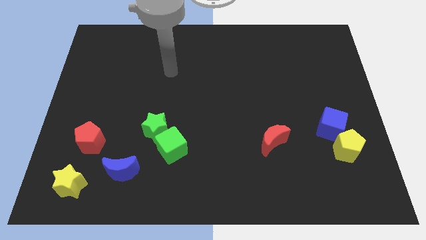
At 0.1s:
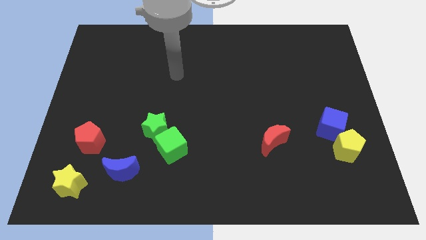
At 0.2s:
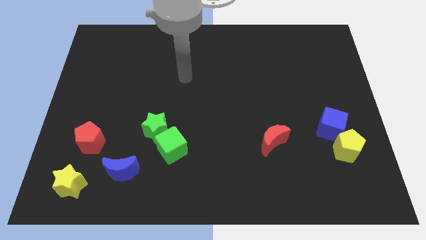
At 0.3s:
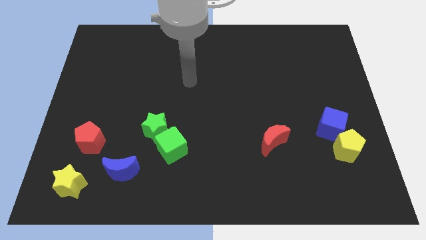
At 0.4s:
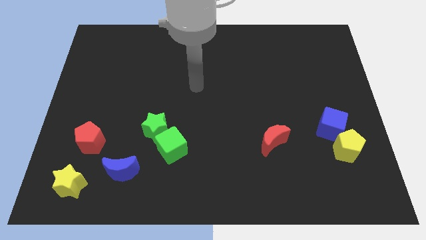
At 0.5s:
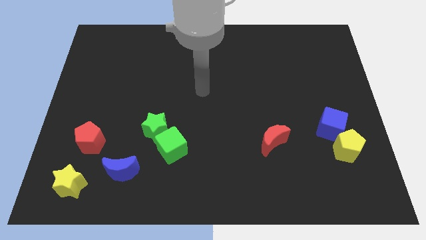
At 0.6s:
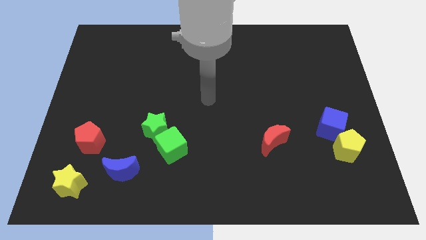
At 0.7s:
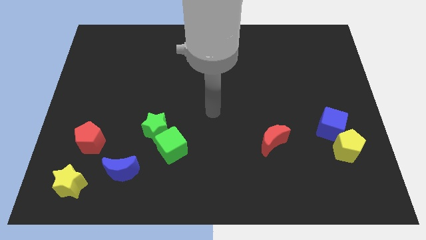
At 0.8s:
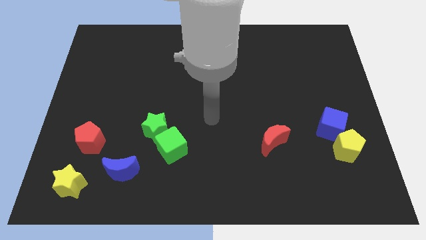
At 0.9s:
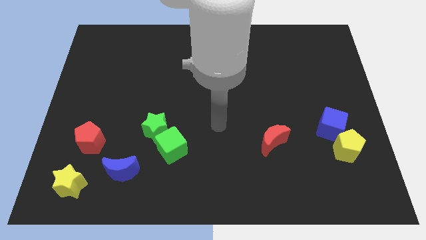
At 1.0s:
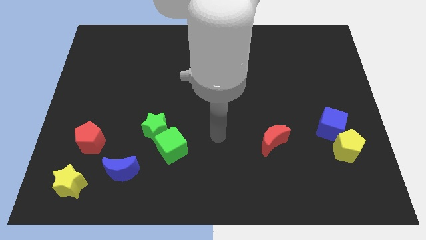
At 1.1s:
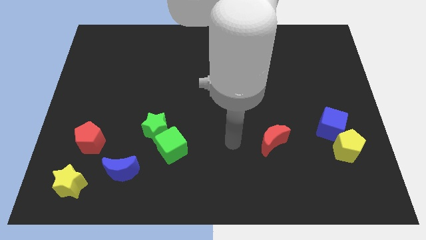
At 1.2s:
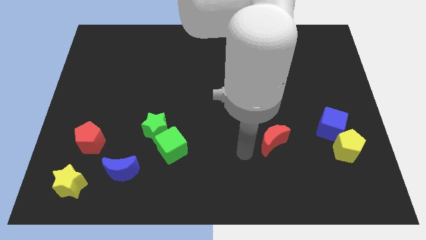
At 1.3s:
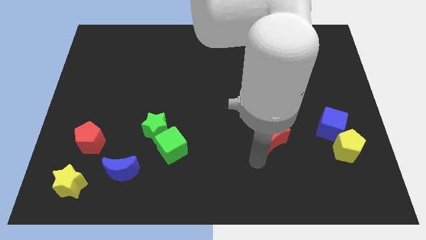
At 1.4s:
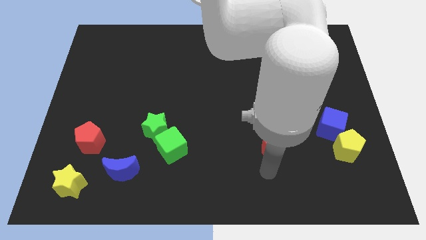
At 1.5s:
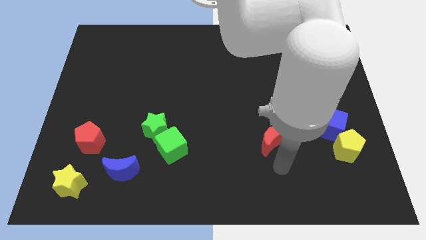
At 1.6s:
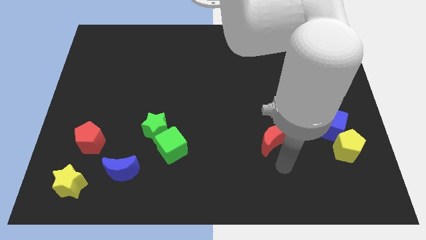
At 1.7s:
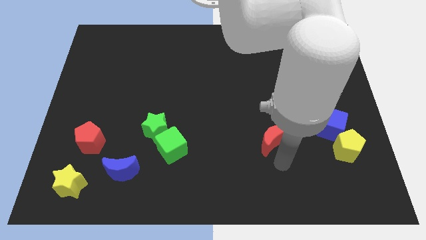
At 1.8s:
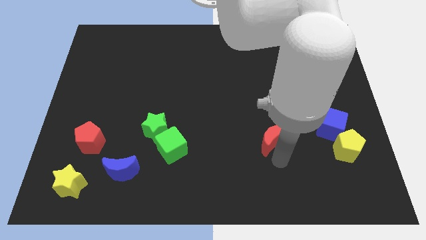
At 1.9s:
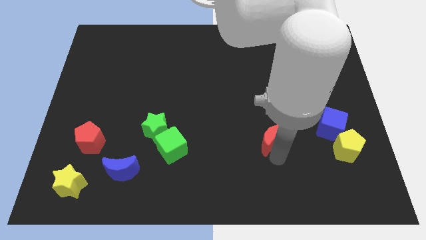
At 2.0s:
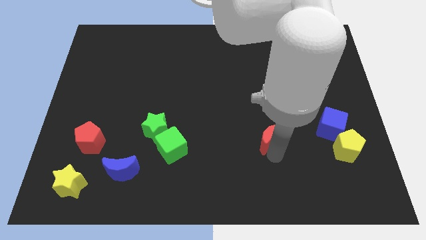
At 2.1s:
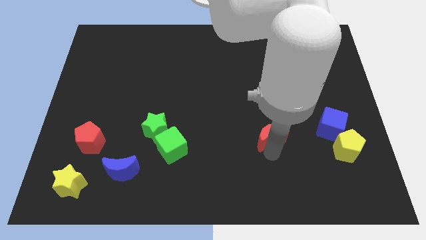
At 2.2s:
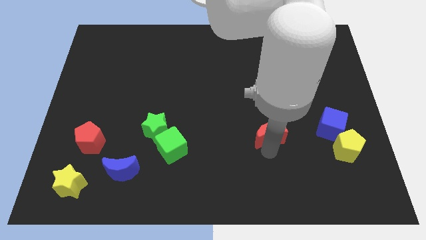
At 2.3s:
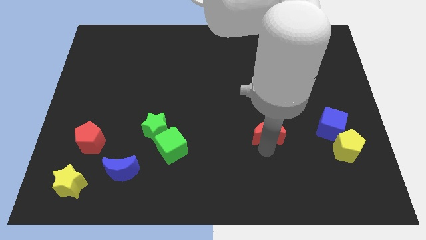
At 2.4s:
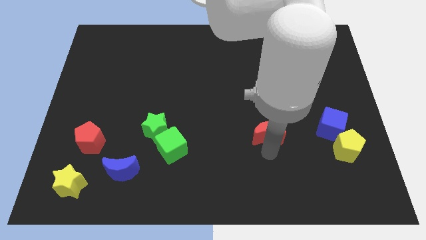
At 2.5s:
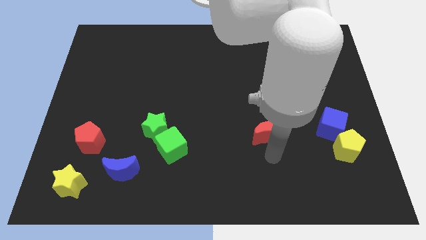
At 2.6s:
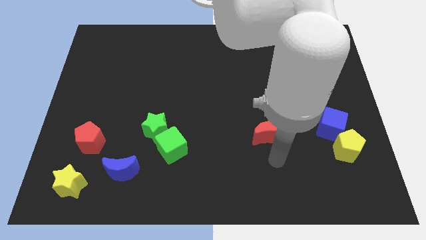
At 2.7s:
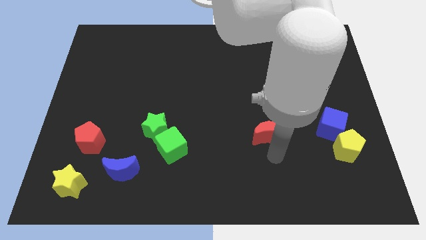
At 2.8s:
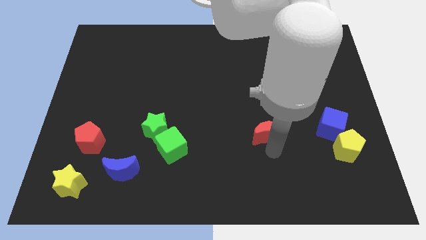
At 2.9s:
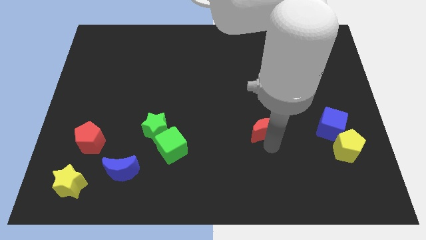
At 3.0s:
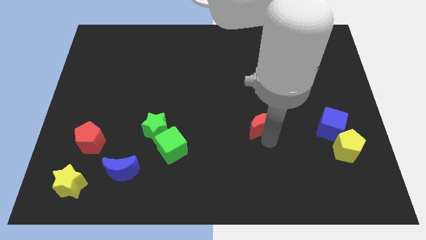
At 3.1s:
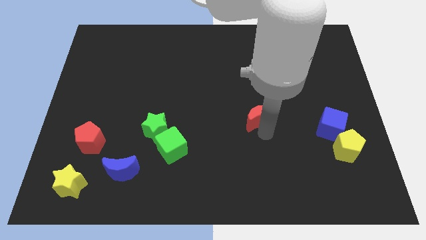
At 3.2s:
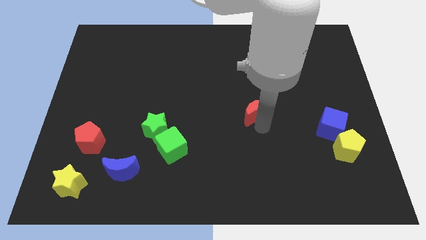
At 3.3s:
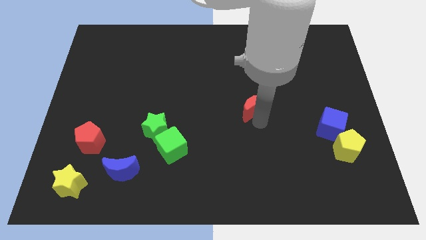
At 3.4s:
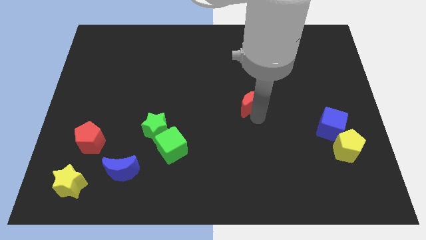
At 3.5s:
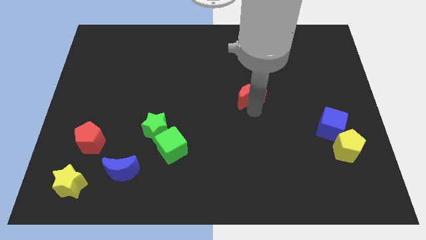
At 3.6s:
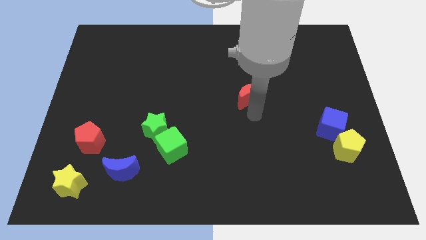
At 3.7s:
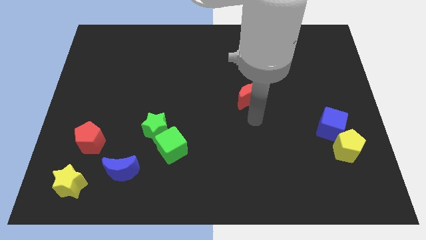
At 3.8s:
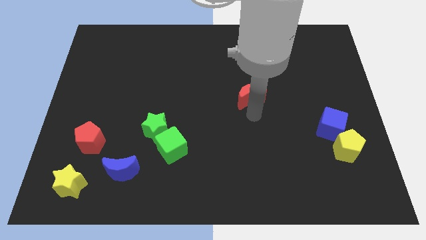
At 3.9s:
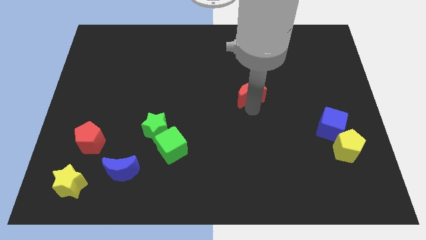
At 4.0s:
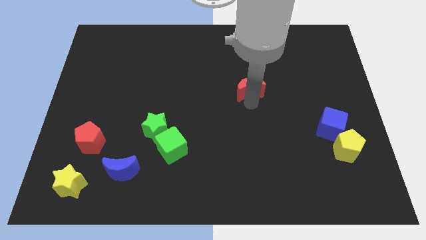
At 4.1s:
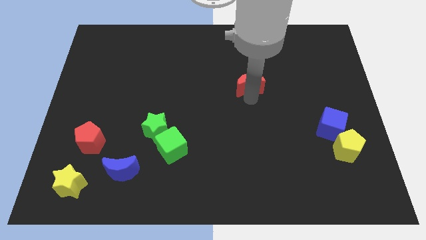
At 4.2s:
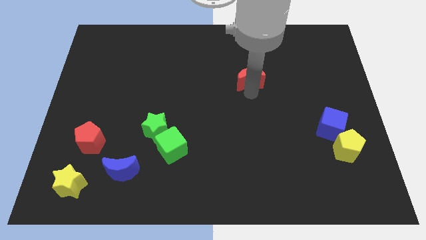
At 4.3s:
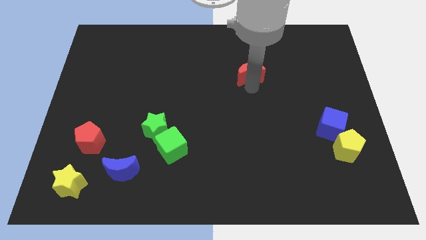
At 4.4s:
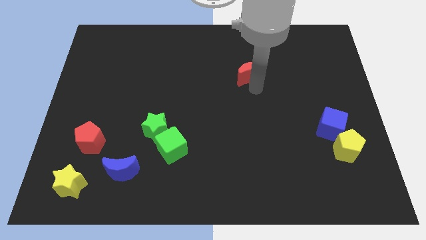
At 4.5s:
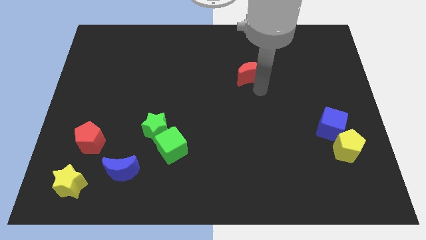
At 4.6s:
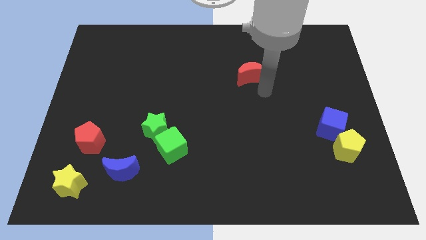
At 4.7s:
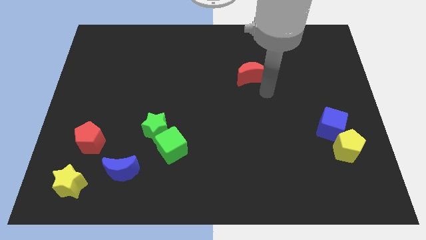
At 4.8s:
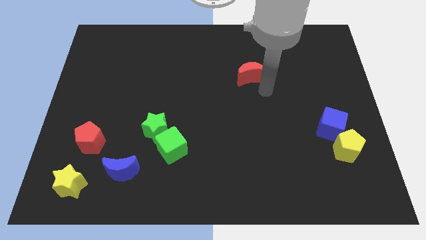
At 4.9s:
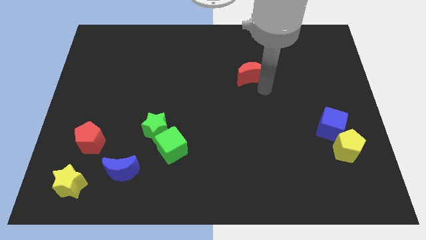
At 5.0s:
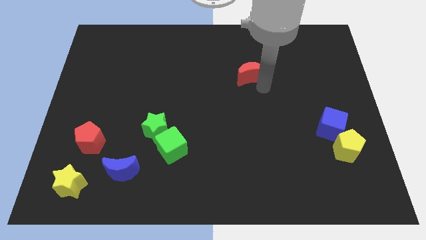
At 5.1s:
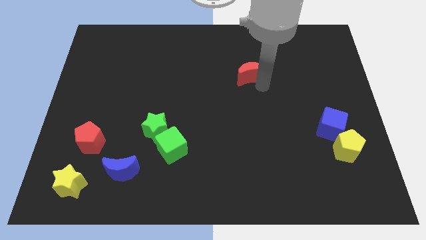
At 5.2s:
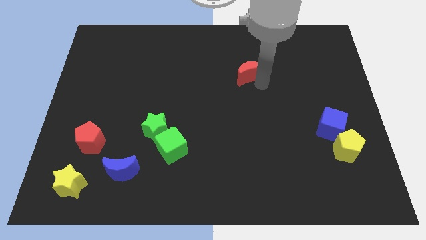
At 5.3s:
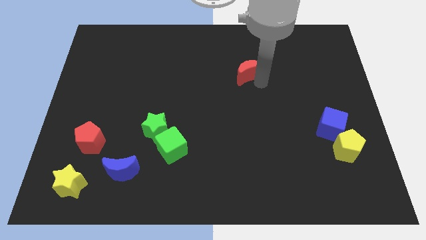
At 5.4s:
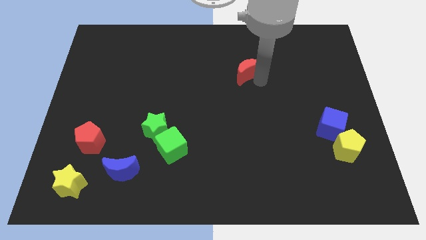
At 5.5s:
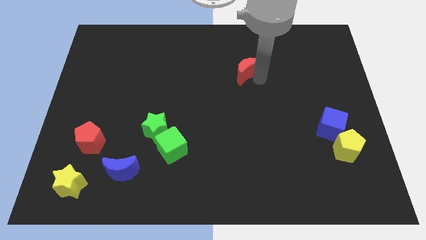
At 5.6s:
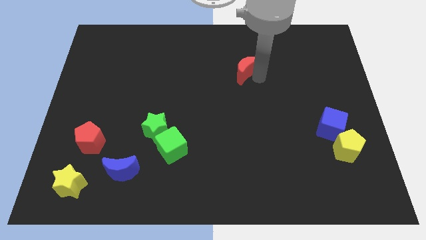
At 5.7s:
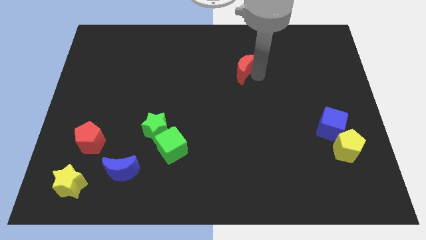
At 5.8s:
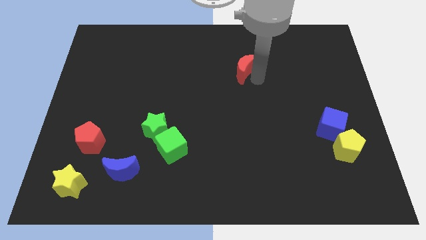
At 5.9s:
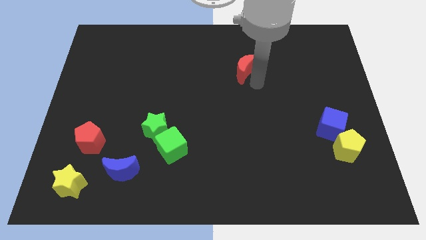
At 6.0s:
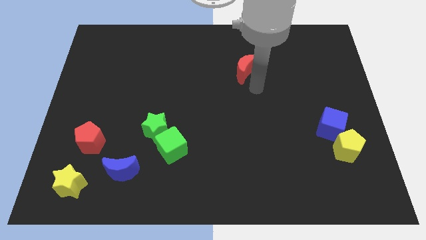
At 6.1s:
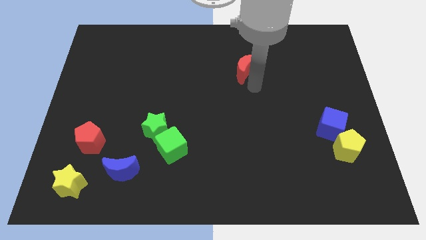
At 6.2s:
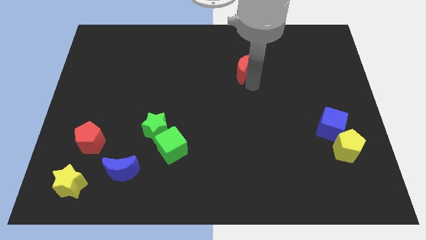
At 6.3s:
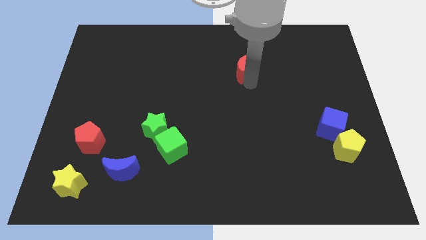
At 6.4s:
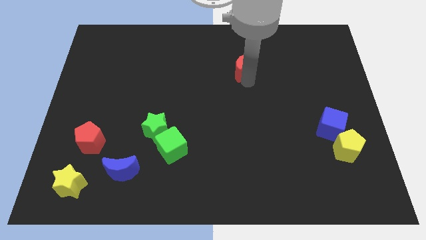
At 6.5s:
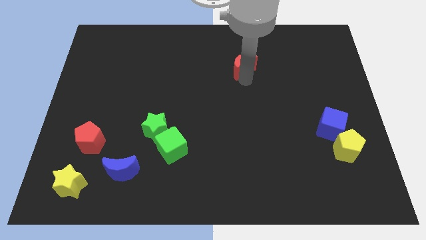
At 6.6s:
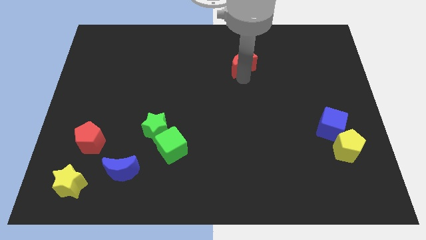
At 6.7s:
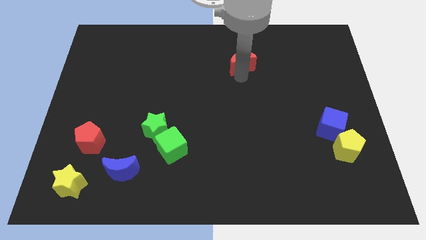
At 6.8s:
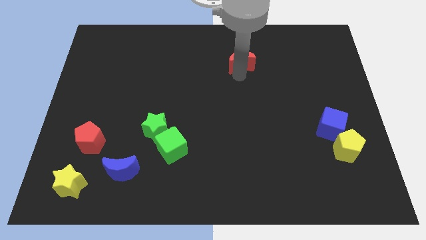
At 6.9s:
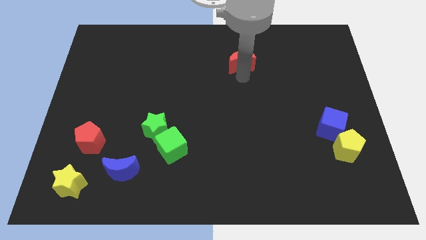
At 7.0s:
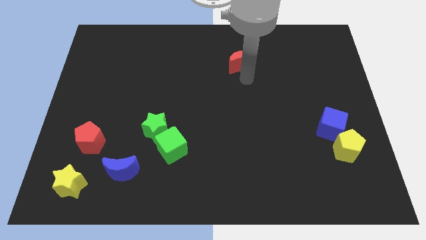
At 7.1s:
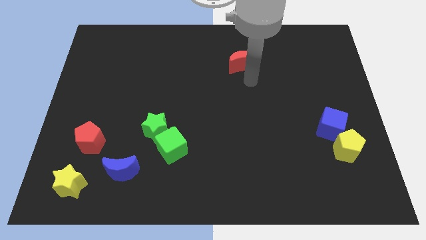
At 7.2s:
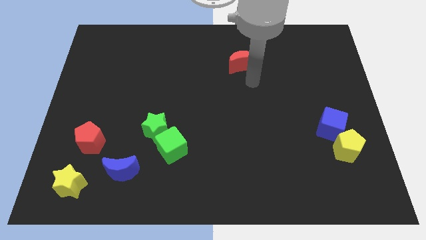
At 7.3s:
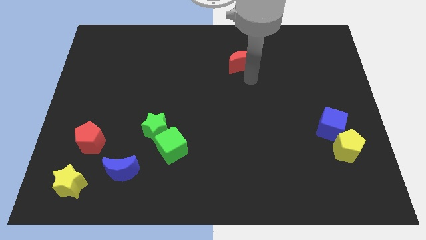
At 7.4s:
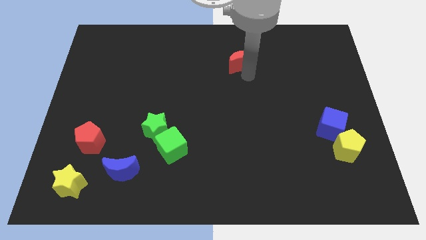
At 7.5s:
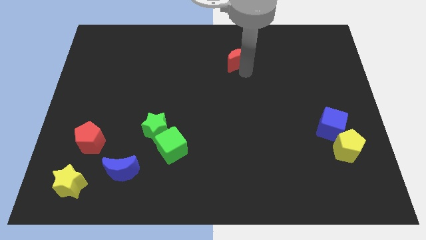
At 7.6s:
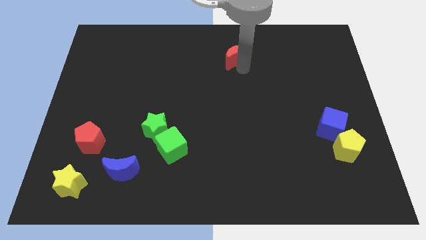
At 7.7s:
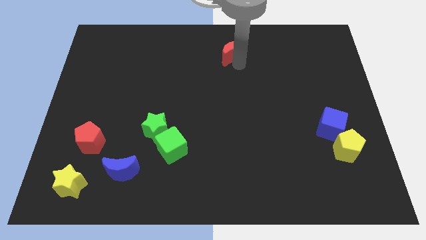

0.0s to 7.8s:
put the red moon to the top
